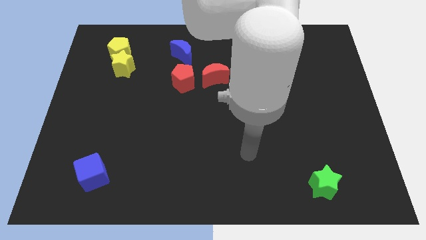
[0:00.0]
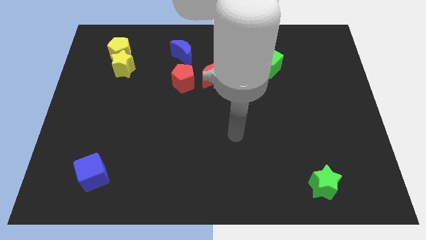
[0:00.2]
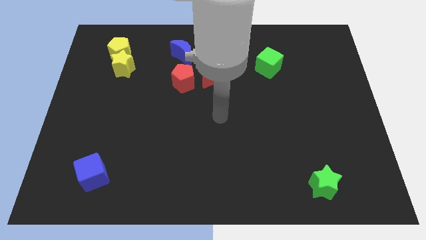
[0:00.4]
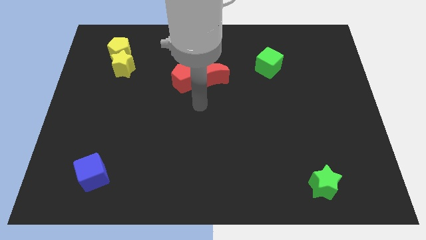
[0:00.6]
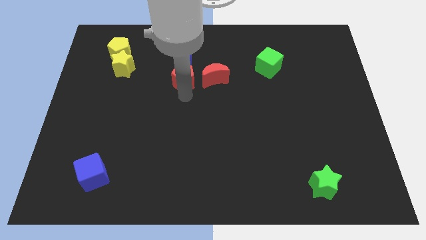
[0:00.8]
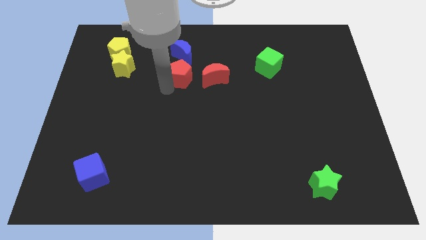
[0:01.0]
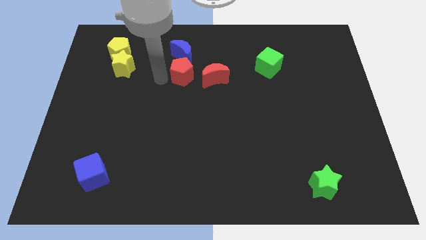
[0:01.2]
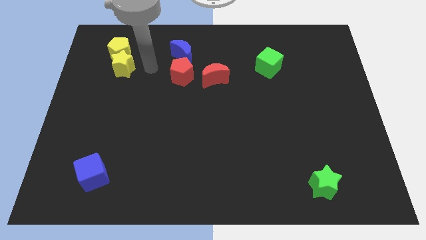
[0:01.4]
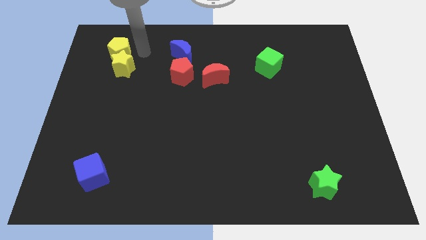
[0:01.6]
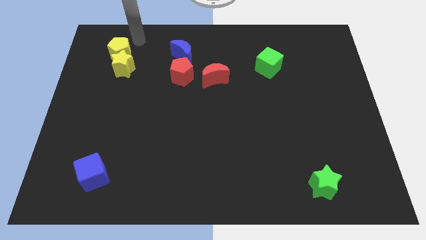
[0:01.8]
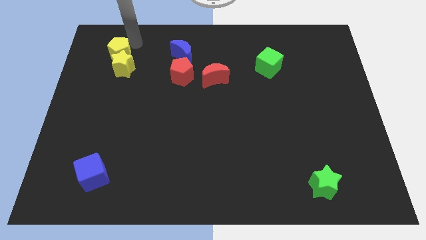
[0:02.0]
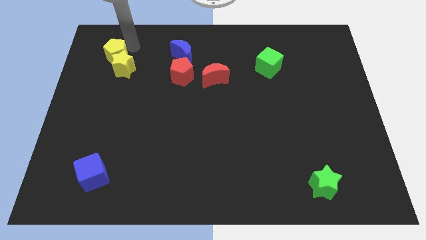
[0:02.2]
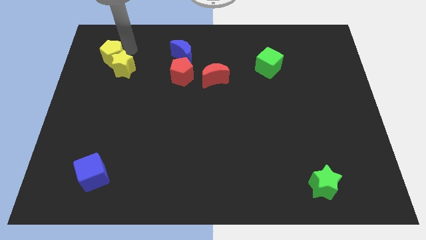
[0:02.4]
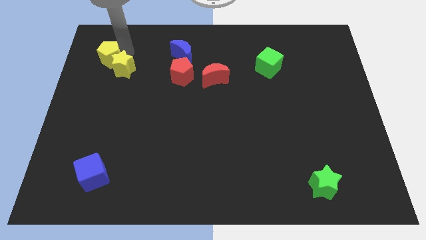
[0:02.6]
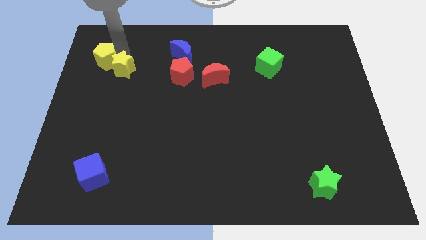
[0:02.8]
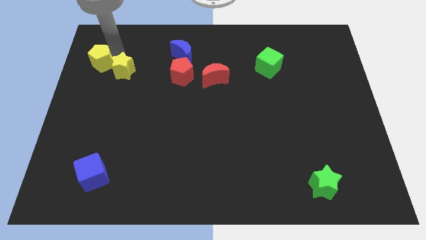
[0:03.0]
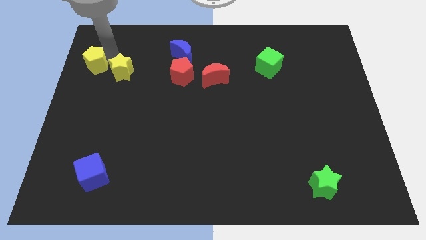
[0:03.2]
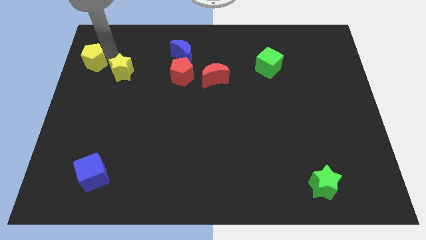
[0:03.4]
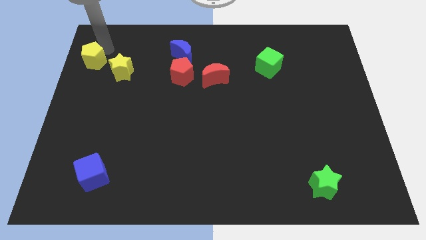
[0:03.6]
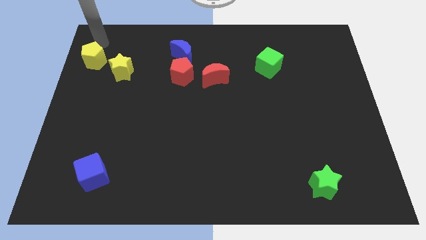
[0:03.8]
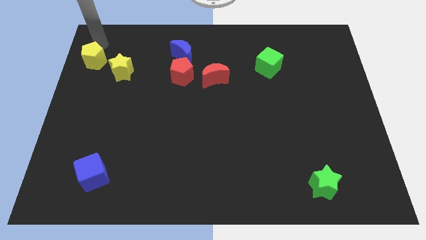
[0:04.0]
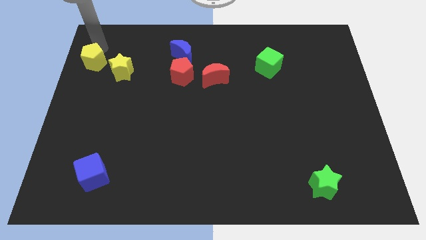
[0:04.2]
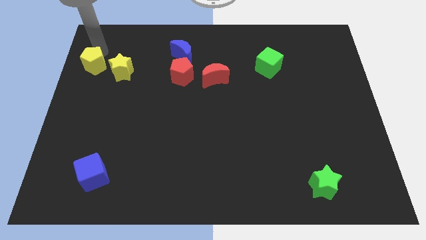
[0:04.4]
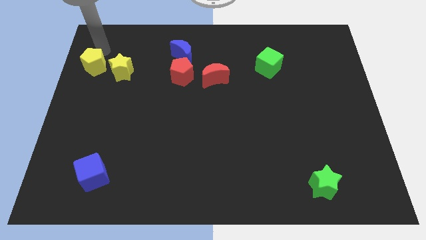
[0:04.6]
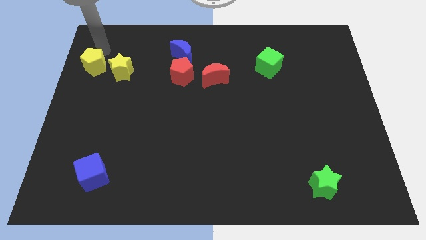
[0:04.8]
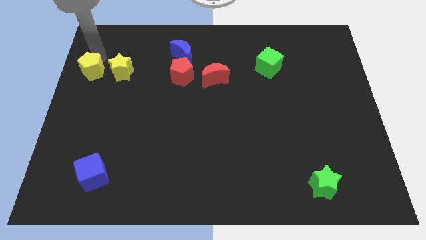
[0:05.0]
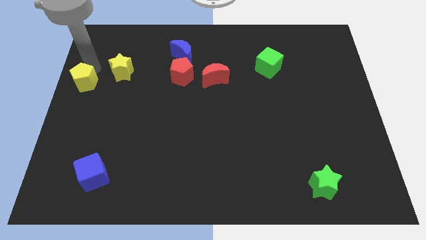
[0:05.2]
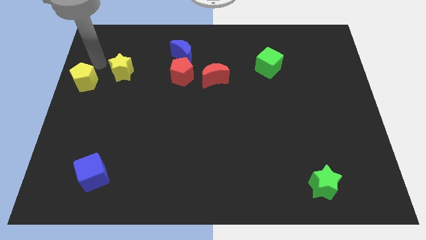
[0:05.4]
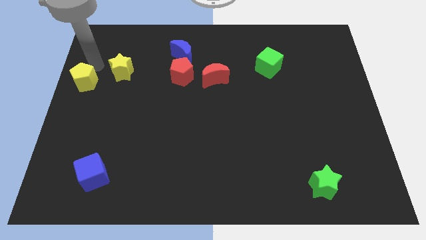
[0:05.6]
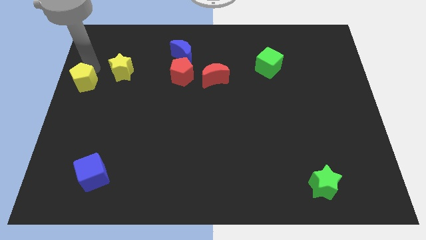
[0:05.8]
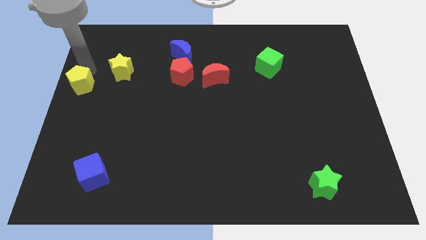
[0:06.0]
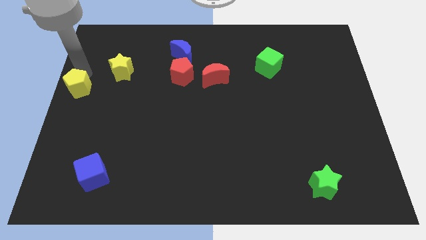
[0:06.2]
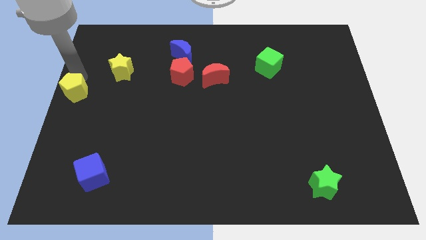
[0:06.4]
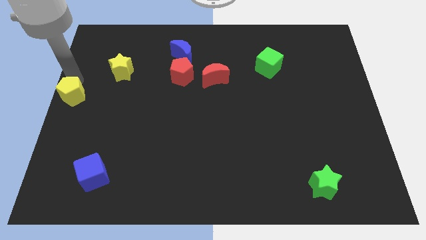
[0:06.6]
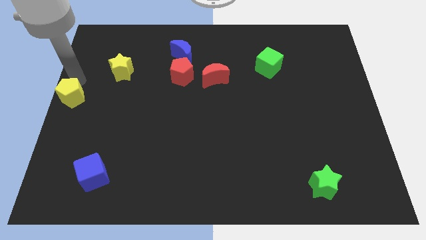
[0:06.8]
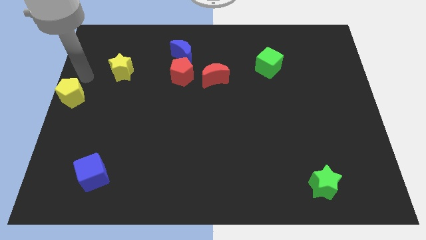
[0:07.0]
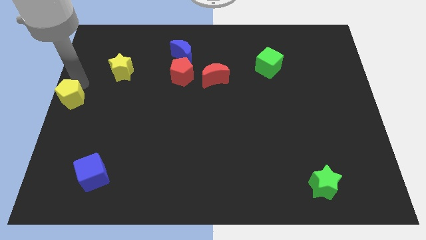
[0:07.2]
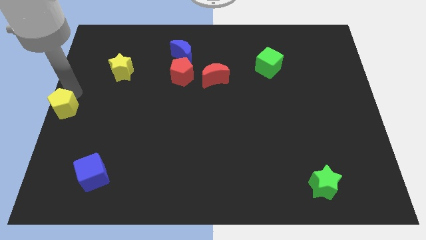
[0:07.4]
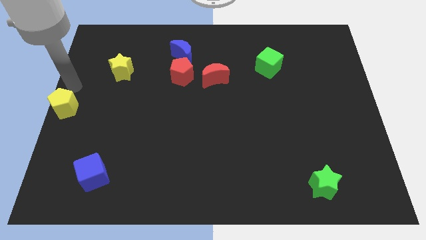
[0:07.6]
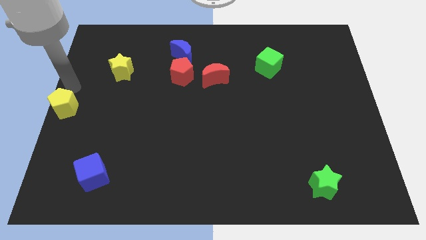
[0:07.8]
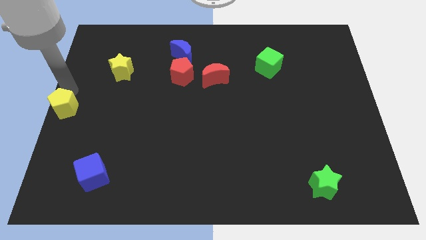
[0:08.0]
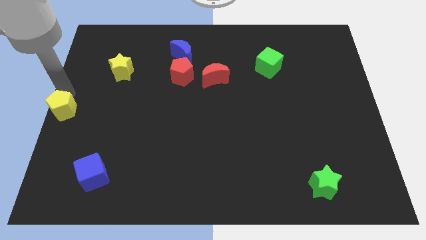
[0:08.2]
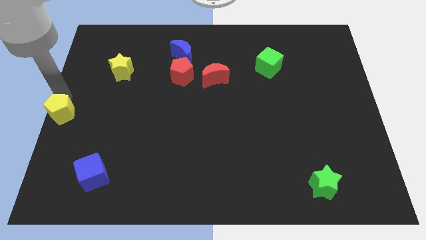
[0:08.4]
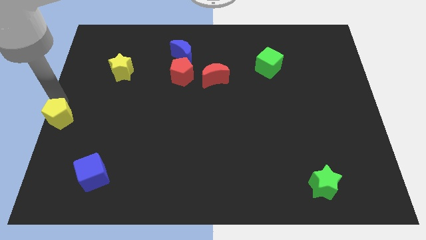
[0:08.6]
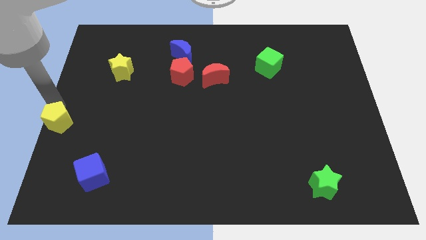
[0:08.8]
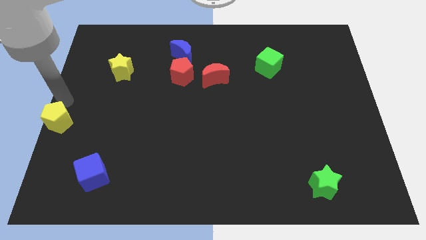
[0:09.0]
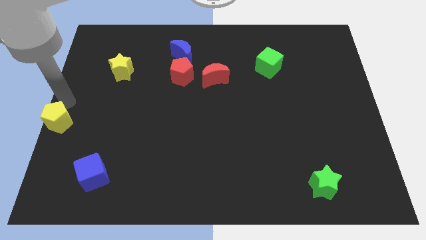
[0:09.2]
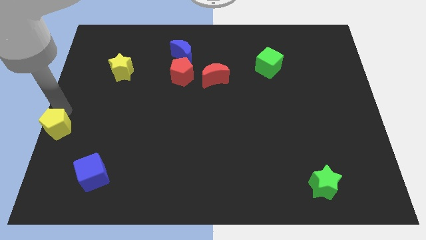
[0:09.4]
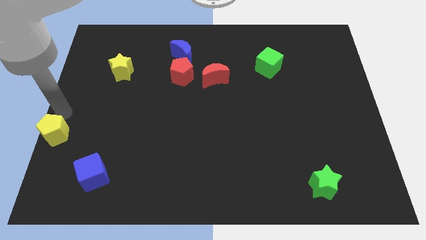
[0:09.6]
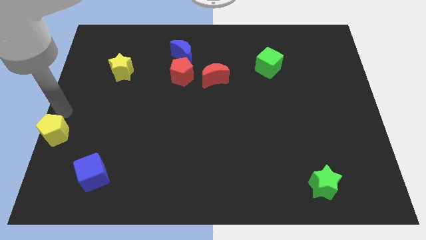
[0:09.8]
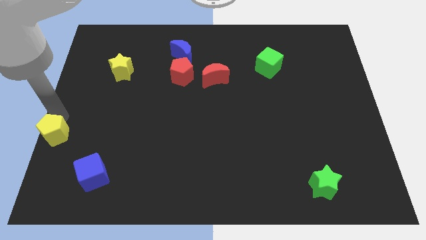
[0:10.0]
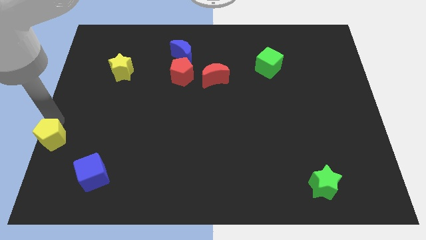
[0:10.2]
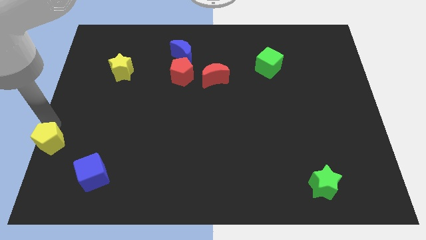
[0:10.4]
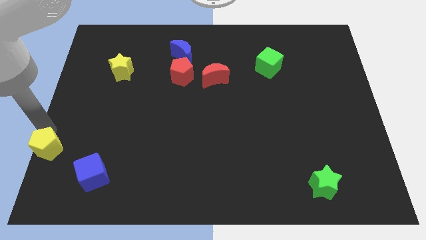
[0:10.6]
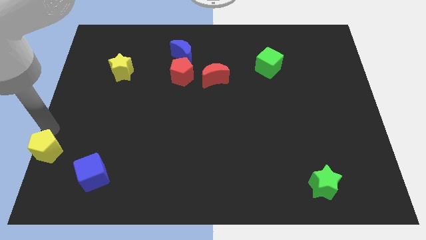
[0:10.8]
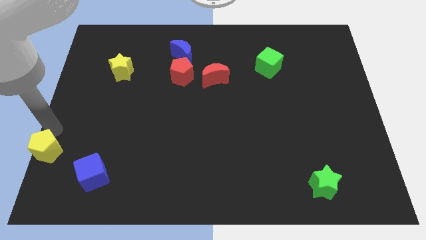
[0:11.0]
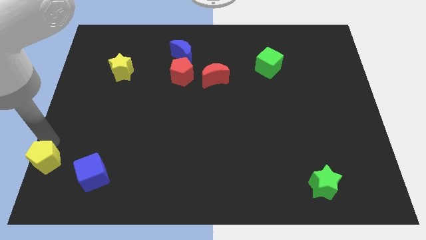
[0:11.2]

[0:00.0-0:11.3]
put the yellow pentagon to the bottom left
